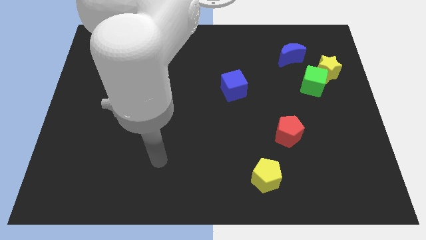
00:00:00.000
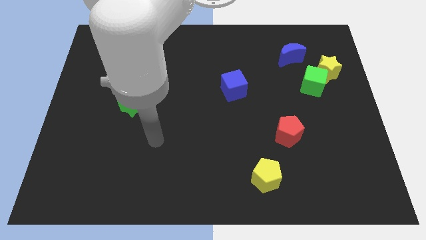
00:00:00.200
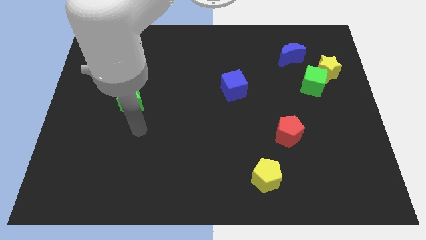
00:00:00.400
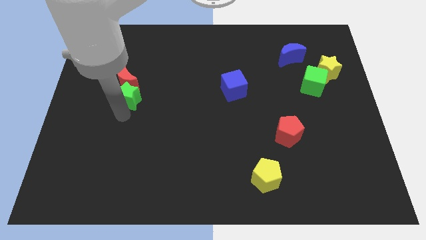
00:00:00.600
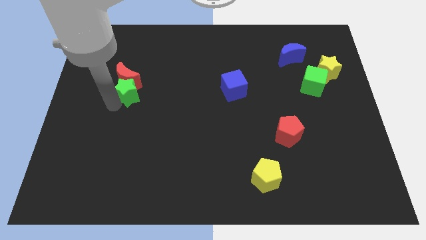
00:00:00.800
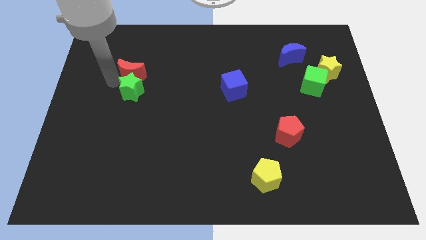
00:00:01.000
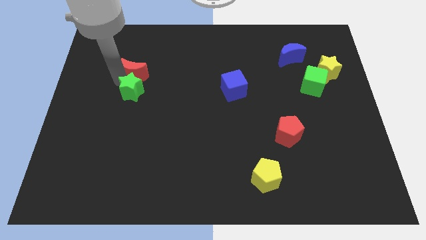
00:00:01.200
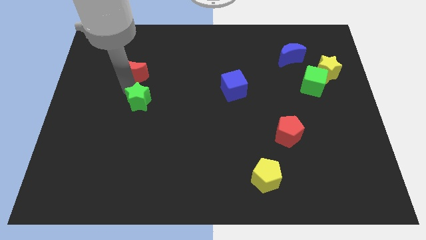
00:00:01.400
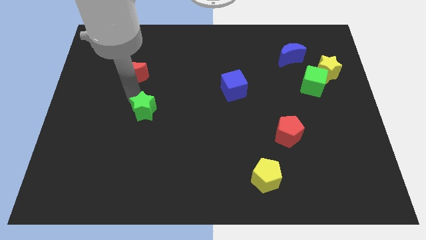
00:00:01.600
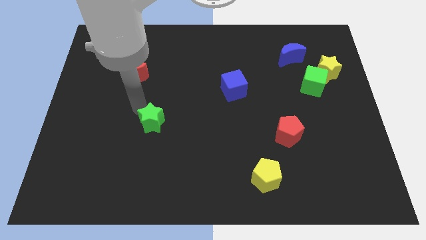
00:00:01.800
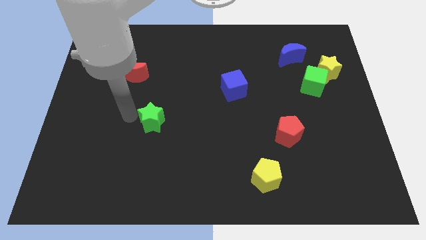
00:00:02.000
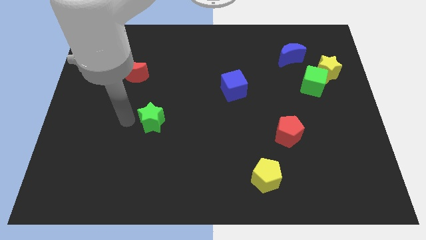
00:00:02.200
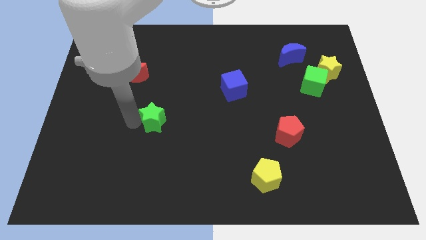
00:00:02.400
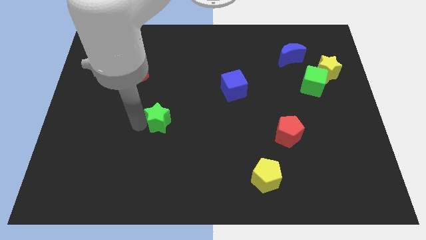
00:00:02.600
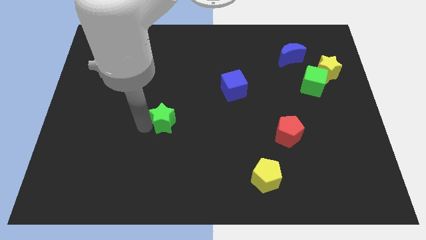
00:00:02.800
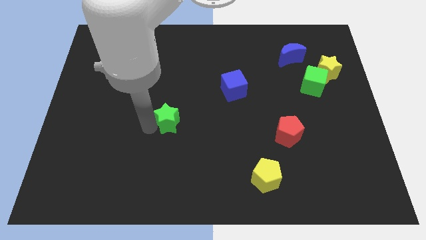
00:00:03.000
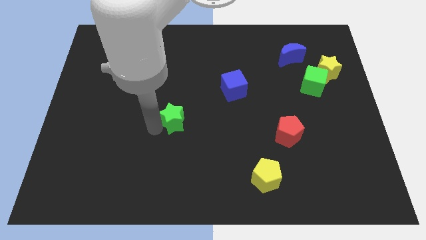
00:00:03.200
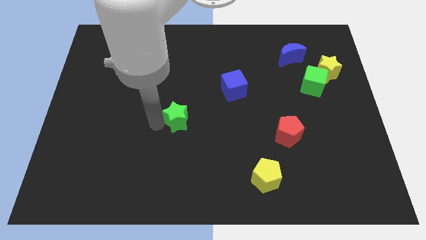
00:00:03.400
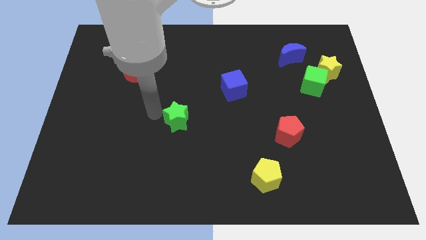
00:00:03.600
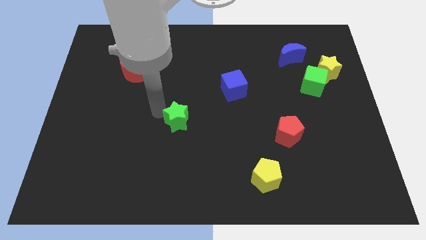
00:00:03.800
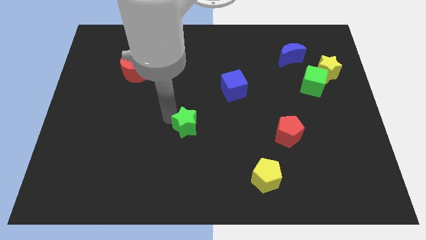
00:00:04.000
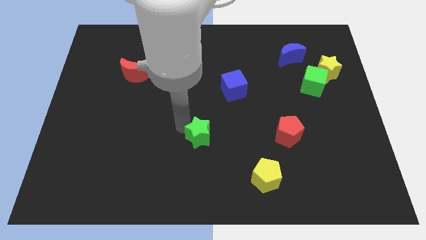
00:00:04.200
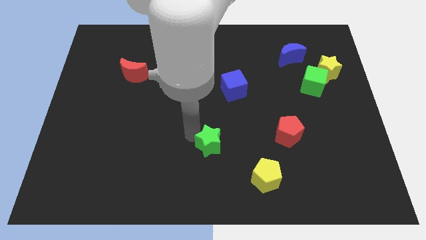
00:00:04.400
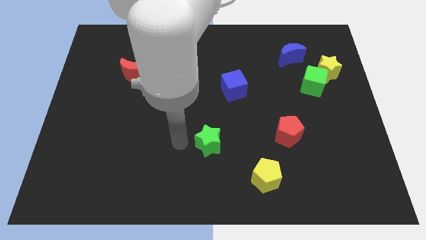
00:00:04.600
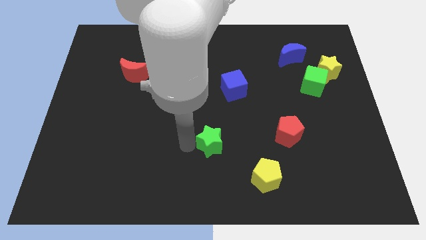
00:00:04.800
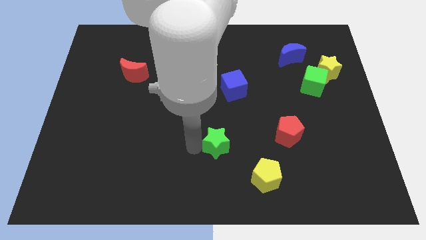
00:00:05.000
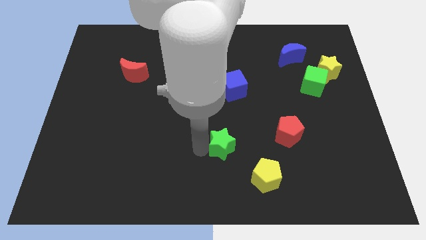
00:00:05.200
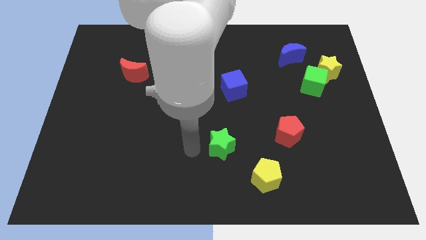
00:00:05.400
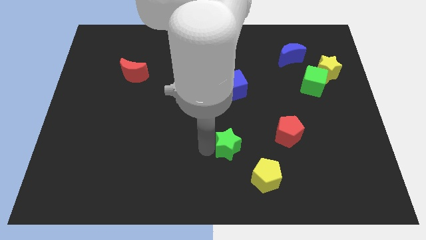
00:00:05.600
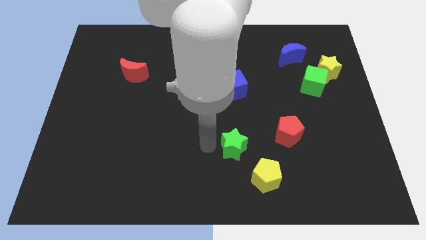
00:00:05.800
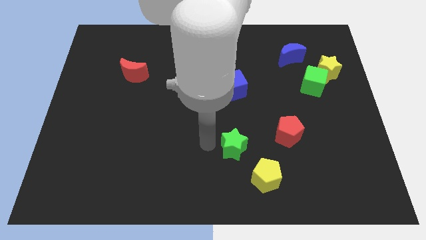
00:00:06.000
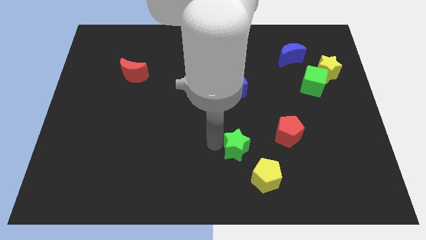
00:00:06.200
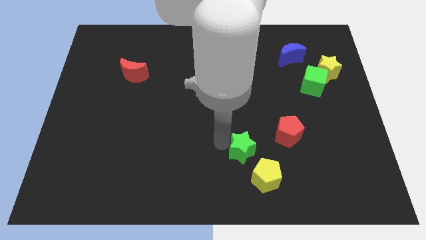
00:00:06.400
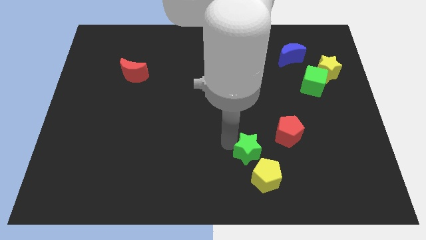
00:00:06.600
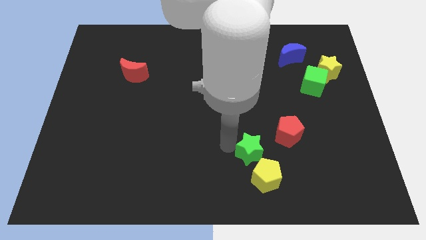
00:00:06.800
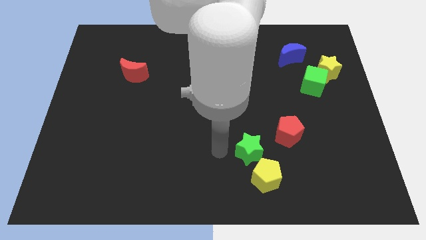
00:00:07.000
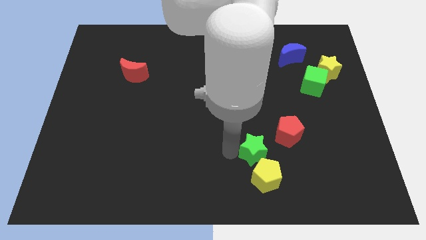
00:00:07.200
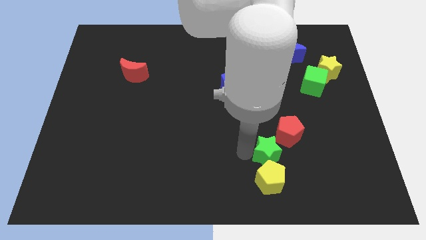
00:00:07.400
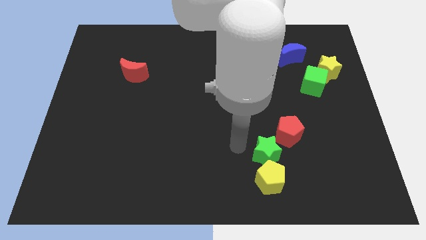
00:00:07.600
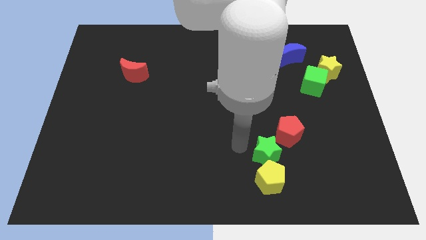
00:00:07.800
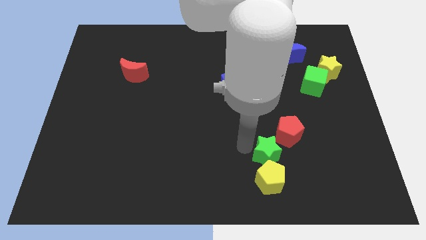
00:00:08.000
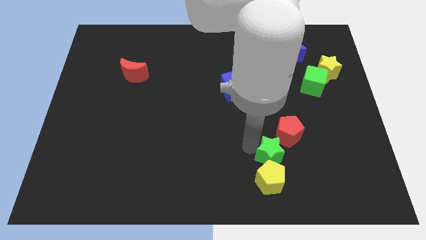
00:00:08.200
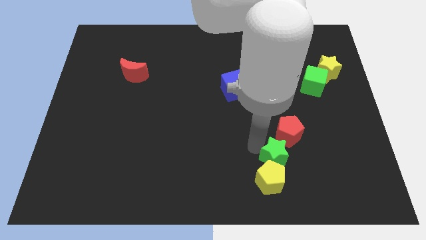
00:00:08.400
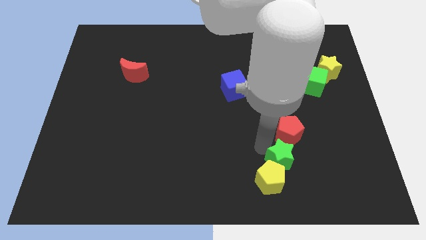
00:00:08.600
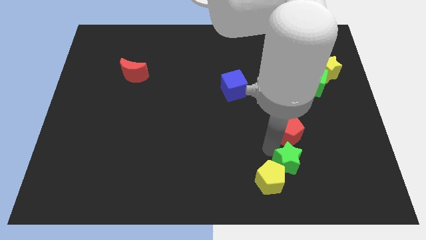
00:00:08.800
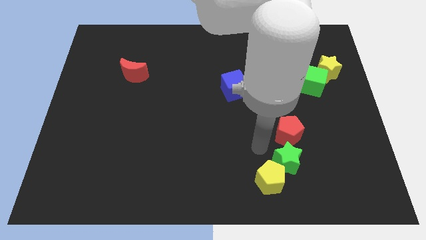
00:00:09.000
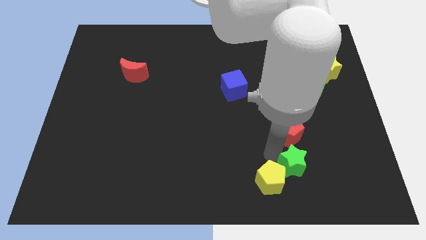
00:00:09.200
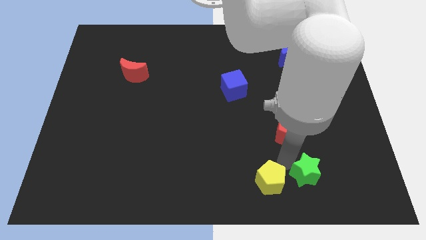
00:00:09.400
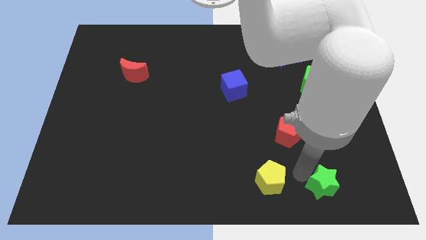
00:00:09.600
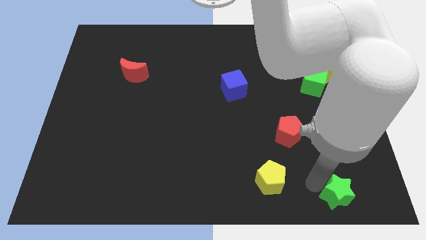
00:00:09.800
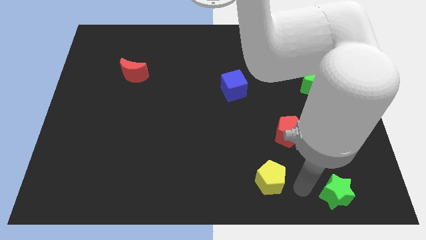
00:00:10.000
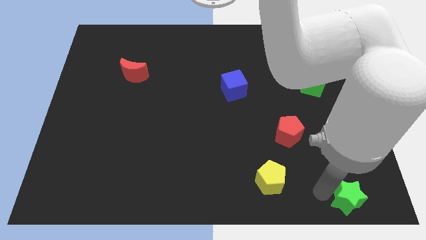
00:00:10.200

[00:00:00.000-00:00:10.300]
put the green star to the lower right corner

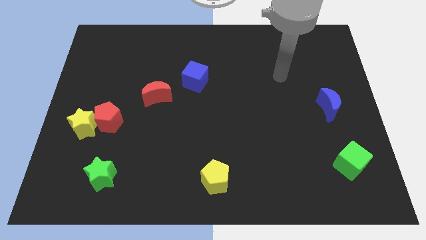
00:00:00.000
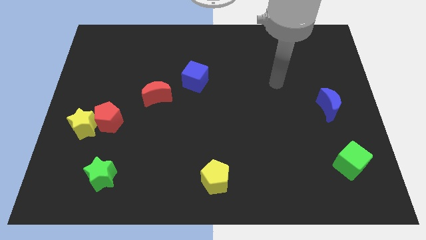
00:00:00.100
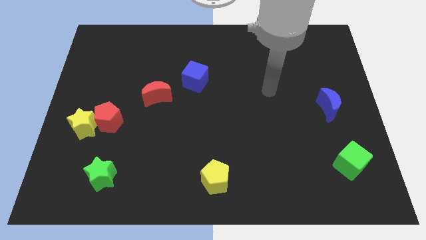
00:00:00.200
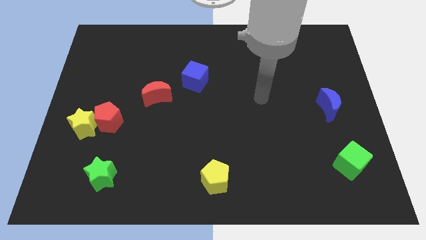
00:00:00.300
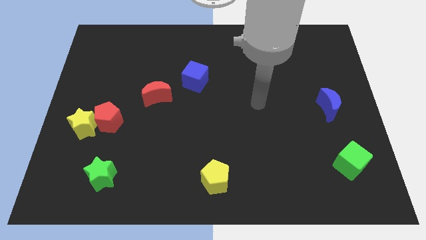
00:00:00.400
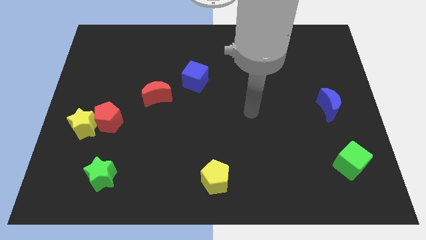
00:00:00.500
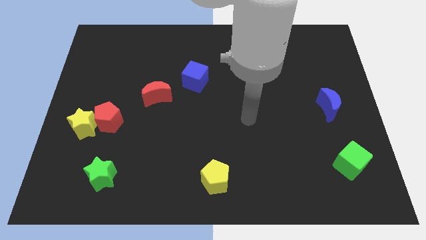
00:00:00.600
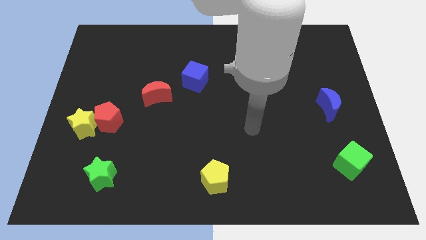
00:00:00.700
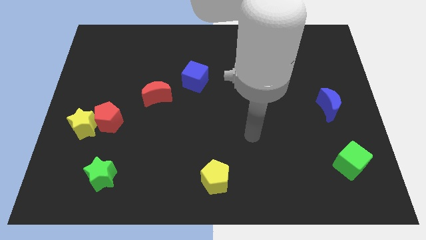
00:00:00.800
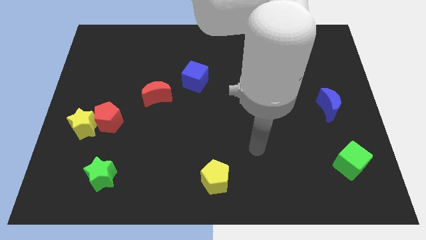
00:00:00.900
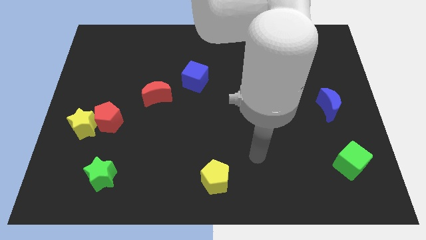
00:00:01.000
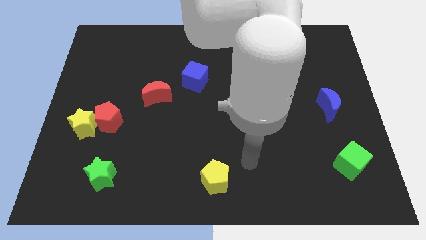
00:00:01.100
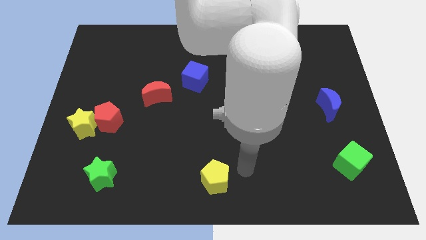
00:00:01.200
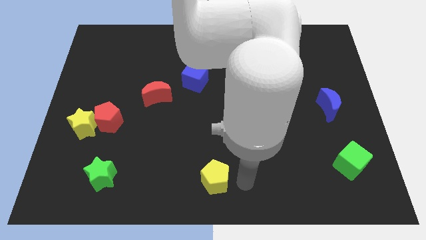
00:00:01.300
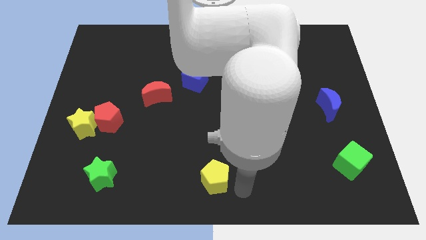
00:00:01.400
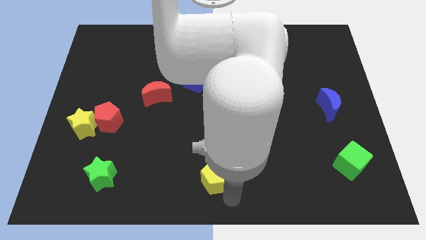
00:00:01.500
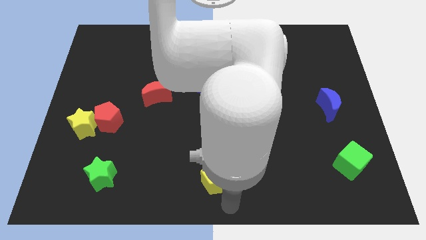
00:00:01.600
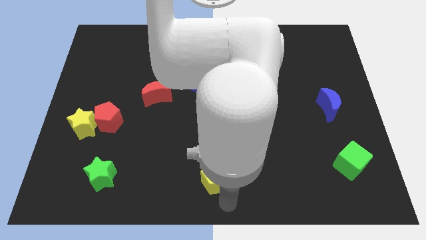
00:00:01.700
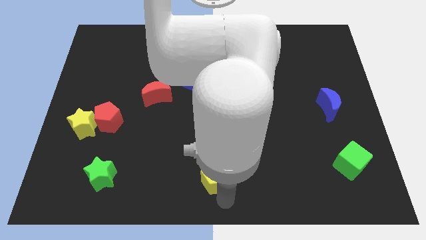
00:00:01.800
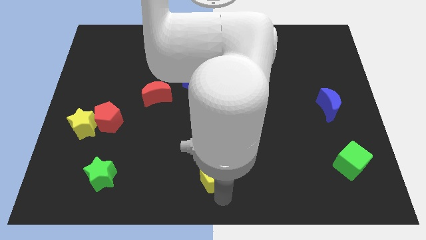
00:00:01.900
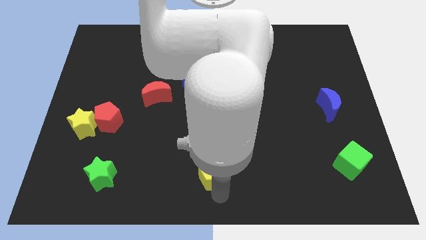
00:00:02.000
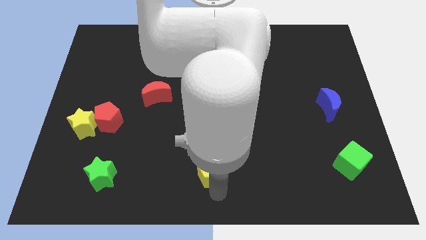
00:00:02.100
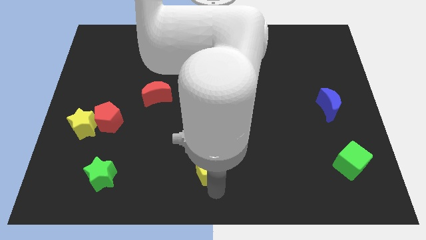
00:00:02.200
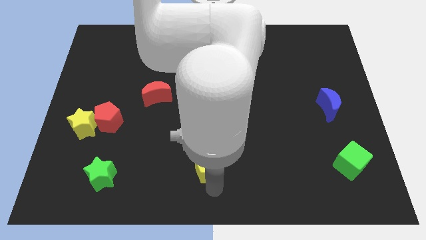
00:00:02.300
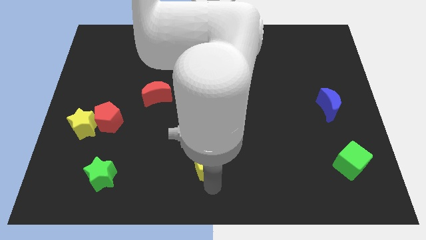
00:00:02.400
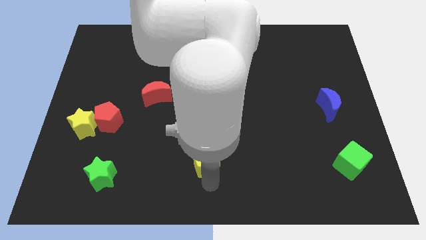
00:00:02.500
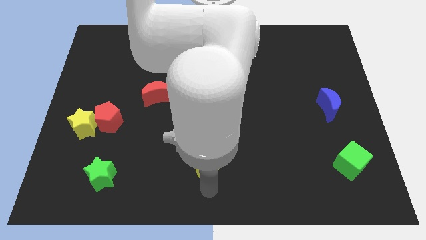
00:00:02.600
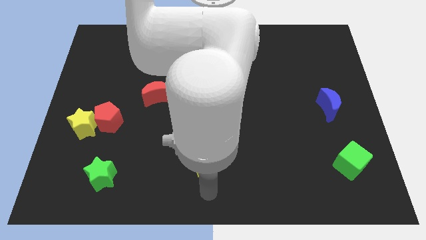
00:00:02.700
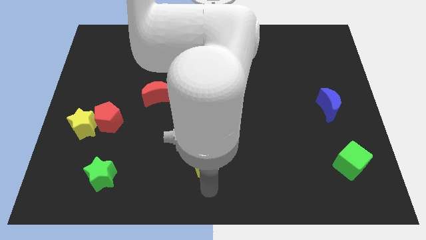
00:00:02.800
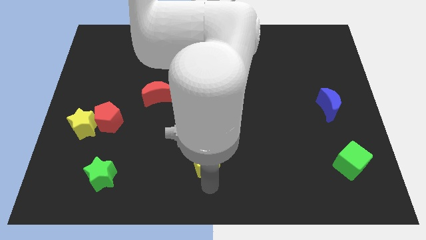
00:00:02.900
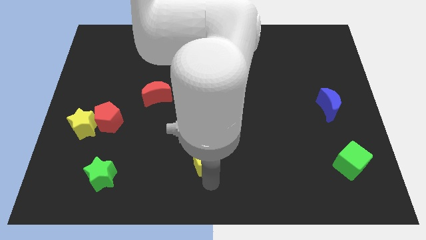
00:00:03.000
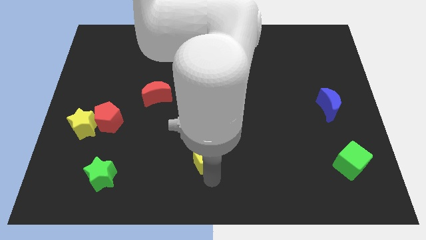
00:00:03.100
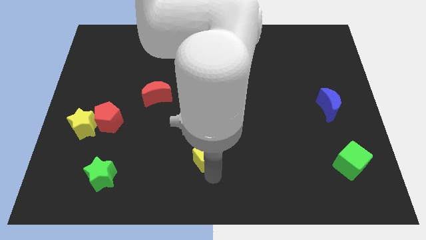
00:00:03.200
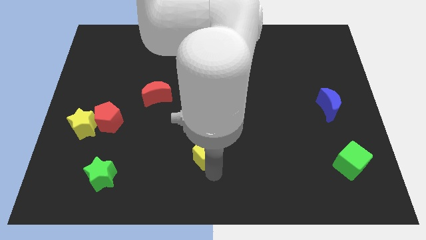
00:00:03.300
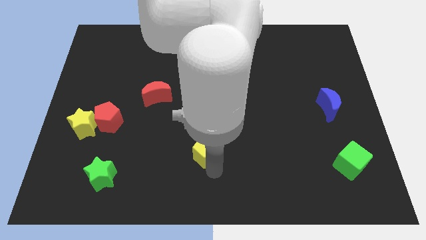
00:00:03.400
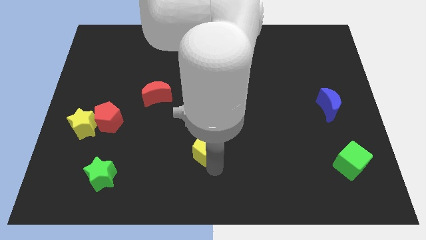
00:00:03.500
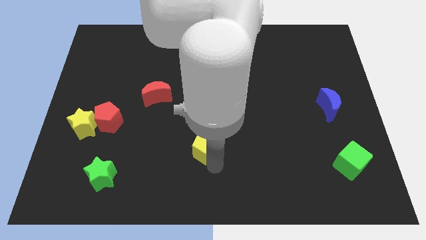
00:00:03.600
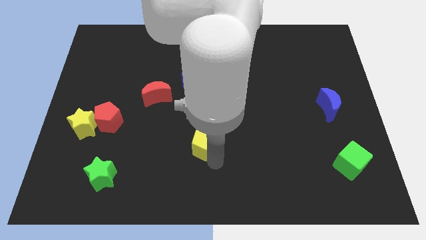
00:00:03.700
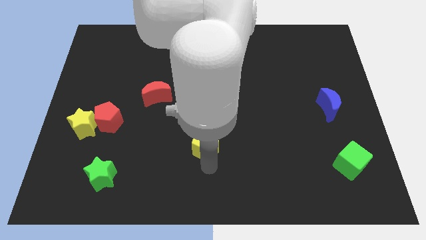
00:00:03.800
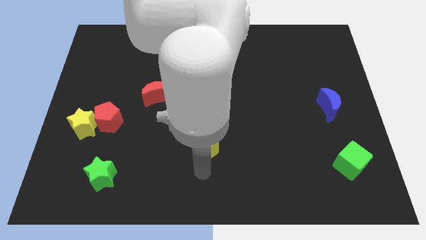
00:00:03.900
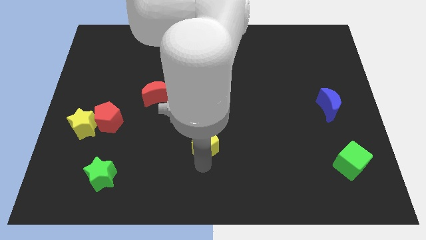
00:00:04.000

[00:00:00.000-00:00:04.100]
move the yellow pentagon to the center
